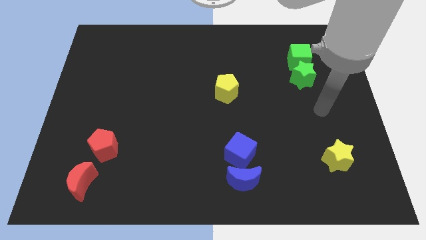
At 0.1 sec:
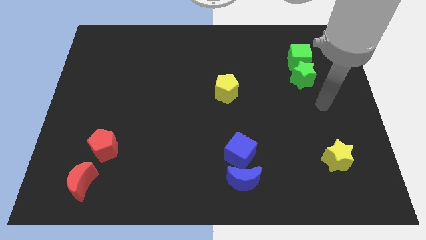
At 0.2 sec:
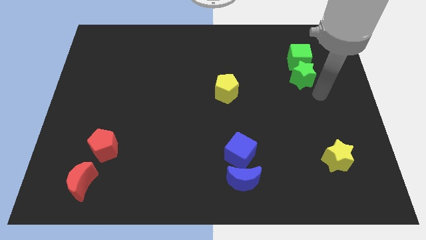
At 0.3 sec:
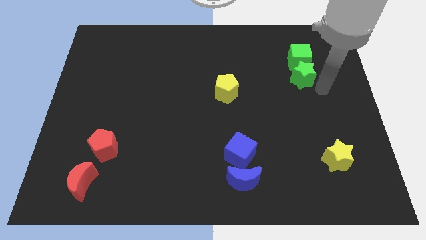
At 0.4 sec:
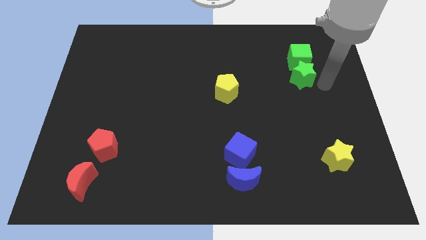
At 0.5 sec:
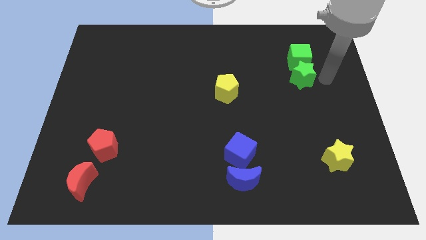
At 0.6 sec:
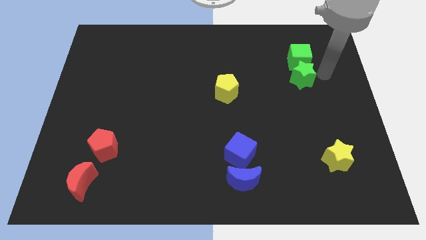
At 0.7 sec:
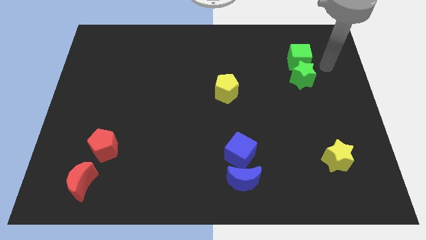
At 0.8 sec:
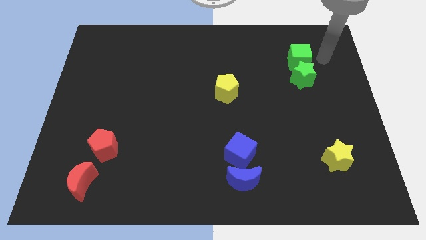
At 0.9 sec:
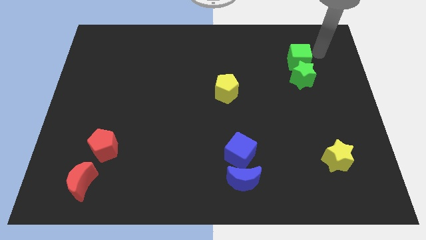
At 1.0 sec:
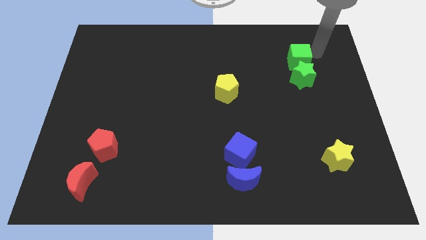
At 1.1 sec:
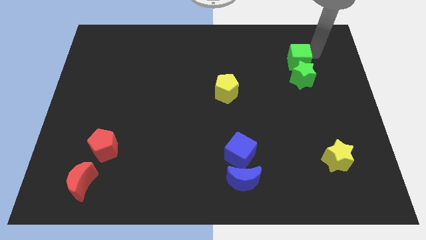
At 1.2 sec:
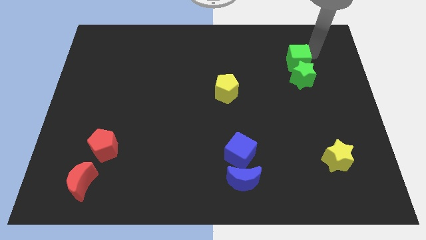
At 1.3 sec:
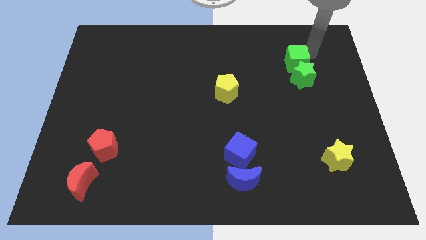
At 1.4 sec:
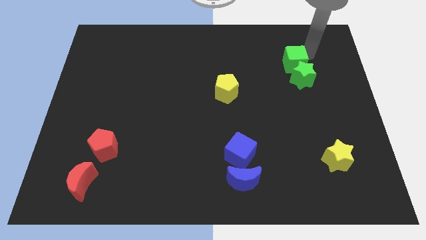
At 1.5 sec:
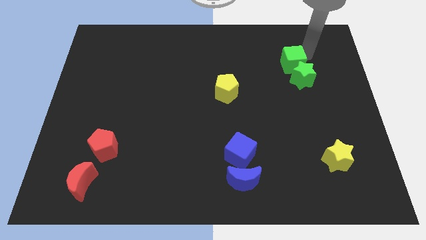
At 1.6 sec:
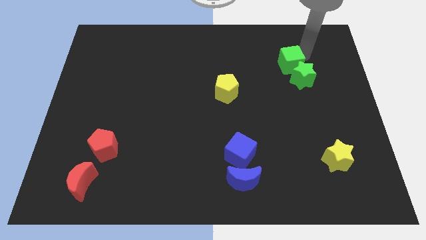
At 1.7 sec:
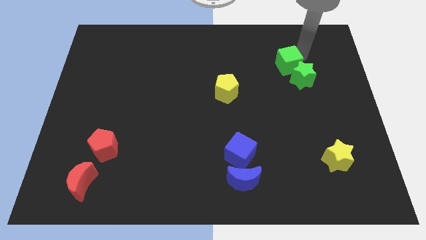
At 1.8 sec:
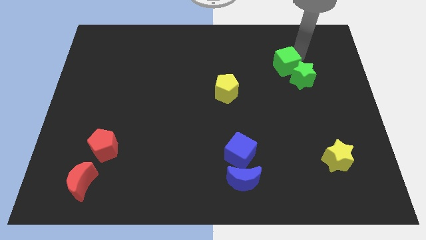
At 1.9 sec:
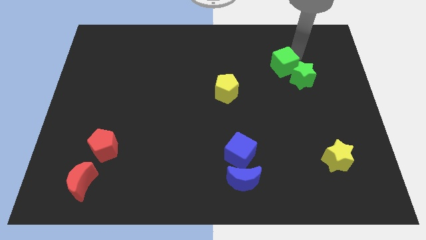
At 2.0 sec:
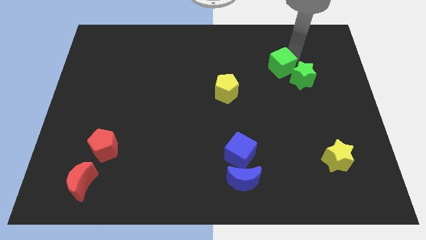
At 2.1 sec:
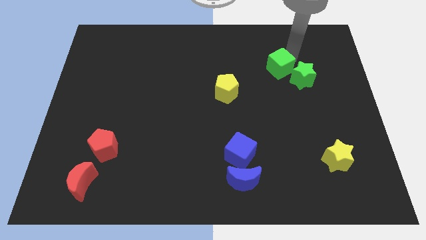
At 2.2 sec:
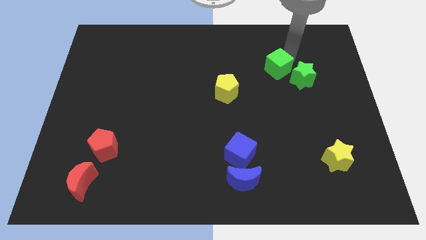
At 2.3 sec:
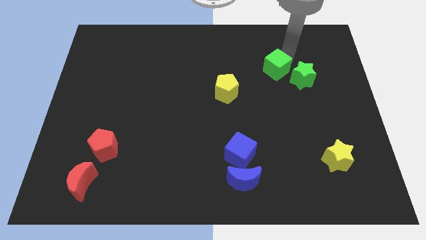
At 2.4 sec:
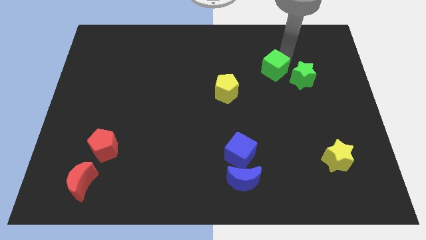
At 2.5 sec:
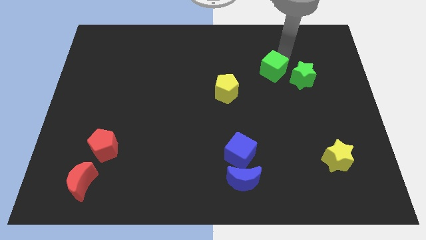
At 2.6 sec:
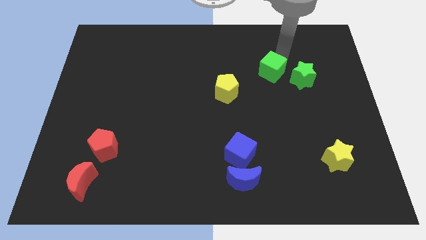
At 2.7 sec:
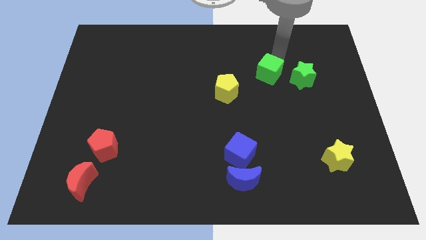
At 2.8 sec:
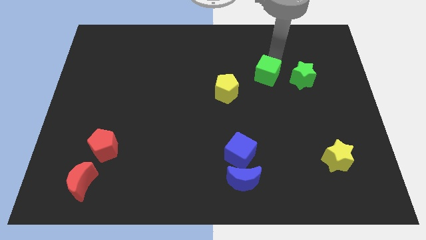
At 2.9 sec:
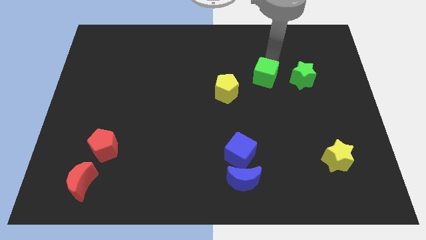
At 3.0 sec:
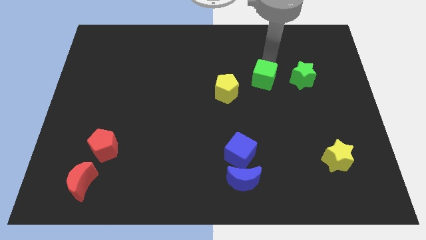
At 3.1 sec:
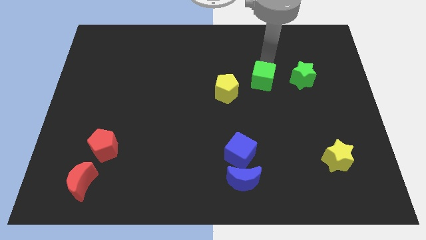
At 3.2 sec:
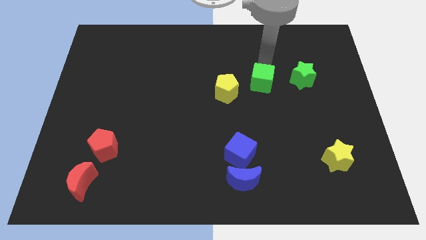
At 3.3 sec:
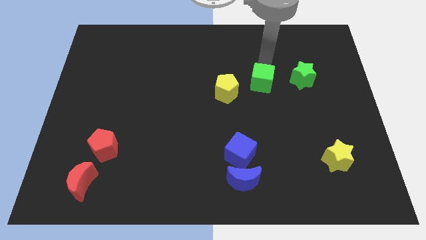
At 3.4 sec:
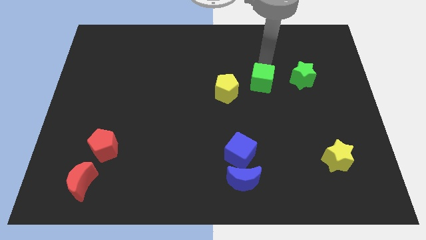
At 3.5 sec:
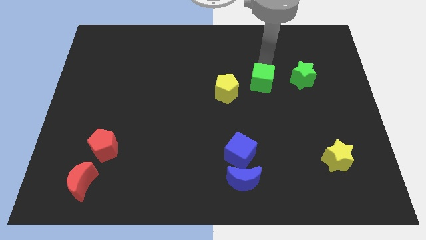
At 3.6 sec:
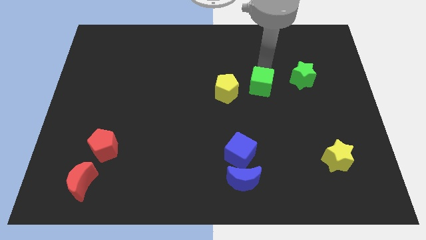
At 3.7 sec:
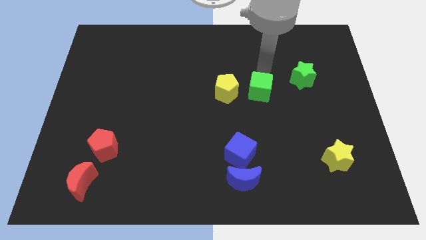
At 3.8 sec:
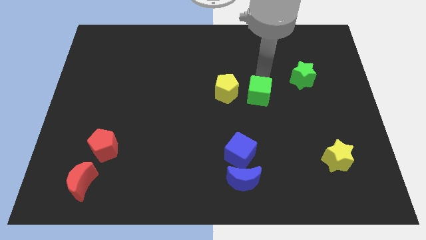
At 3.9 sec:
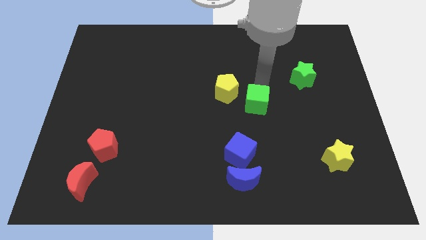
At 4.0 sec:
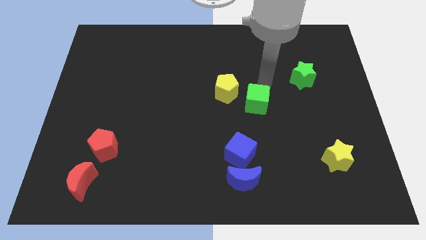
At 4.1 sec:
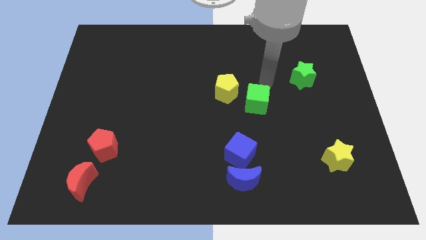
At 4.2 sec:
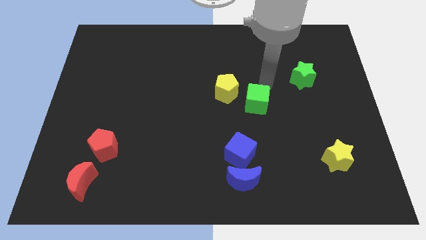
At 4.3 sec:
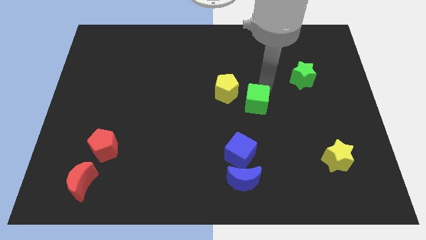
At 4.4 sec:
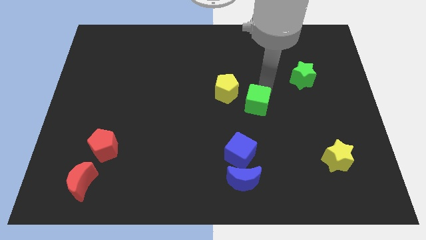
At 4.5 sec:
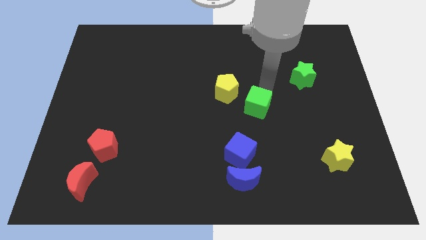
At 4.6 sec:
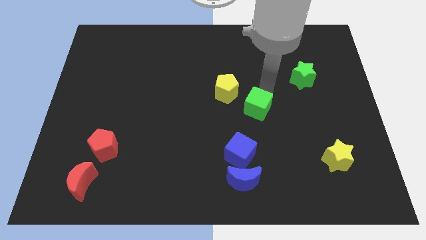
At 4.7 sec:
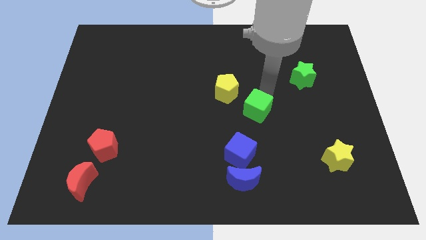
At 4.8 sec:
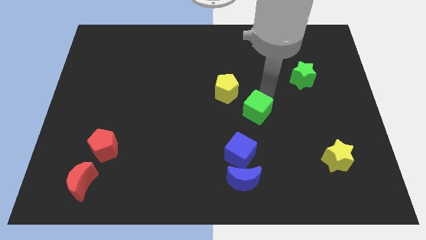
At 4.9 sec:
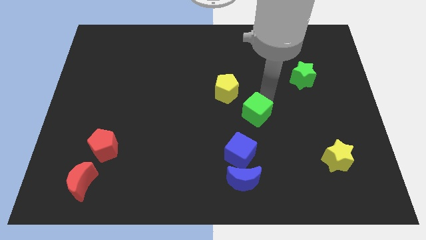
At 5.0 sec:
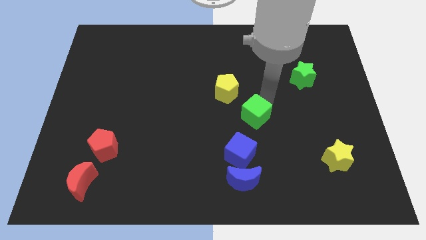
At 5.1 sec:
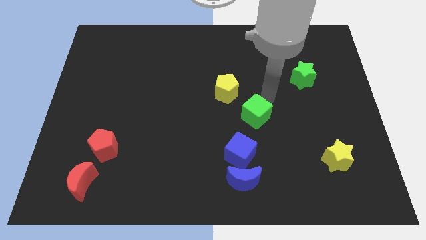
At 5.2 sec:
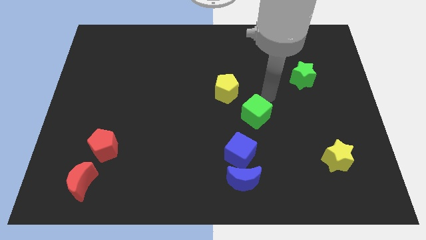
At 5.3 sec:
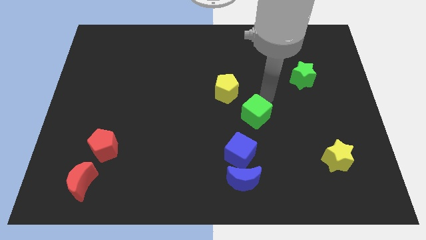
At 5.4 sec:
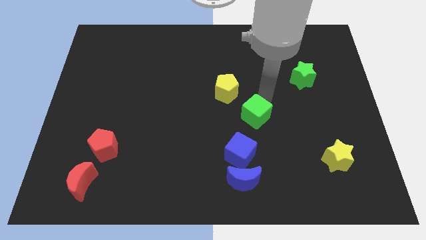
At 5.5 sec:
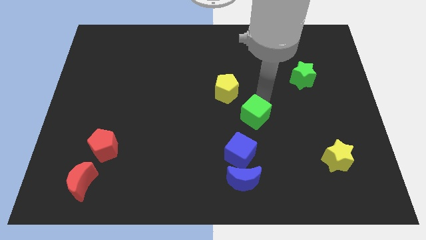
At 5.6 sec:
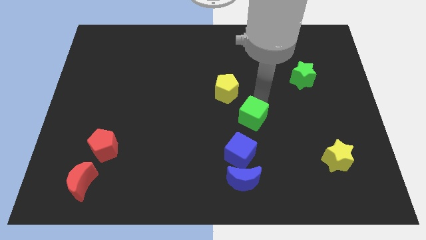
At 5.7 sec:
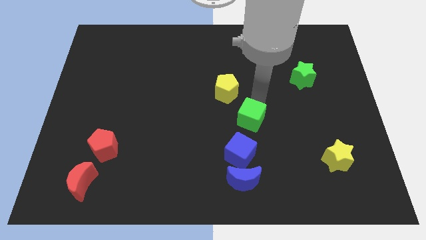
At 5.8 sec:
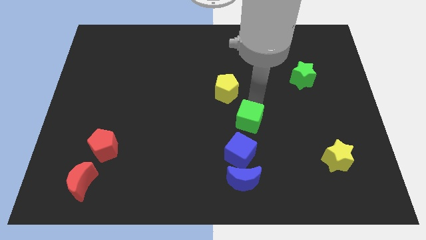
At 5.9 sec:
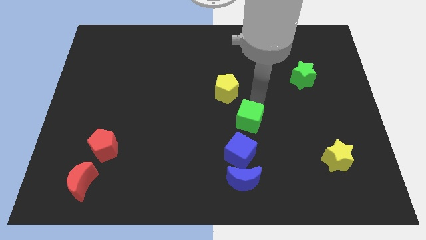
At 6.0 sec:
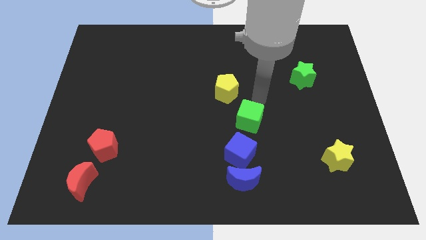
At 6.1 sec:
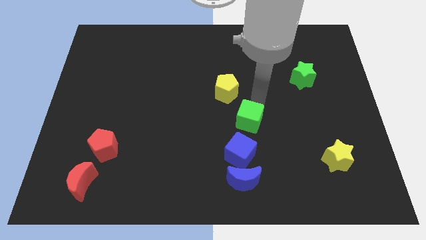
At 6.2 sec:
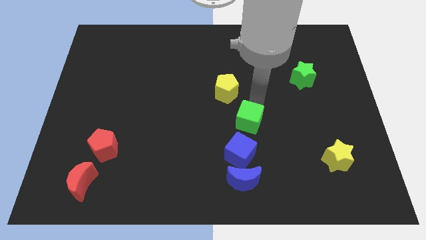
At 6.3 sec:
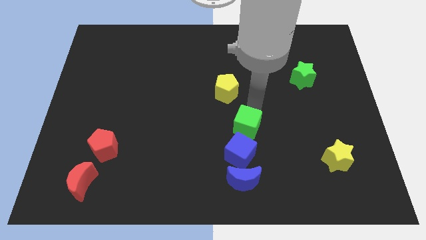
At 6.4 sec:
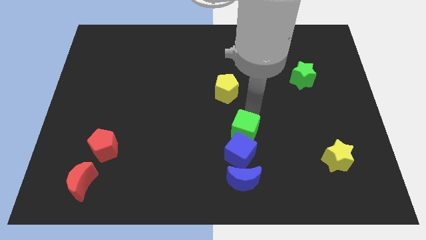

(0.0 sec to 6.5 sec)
push the green cube close to the blue cube

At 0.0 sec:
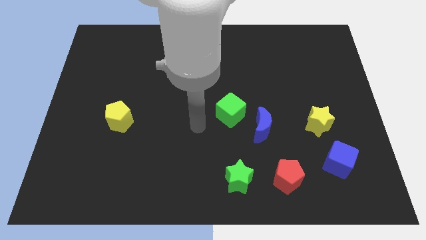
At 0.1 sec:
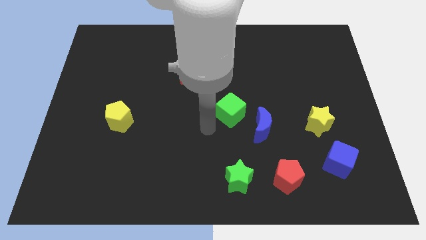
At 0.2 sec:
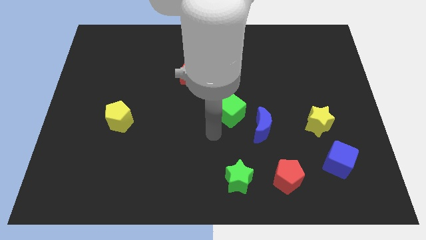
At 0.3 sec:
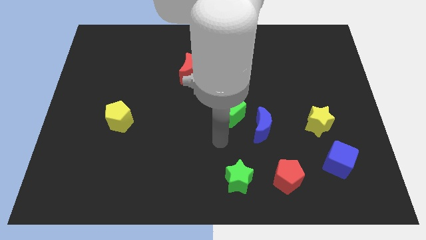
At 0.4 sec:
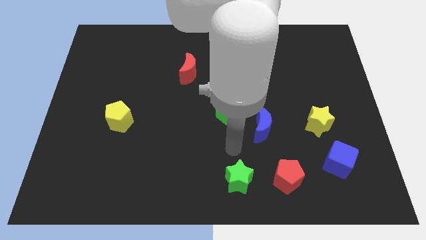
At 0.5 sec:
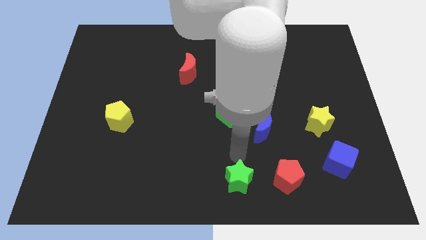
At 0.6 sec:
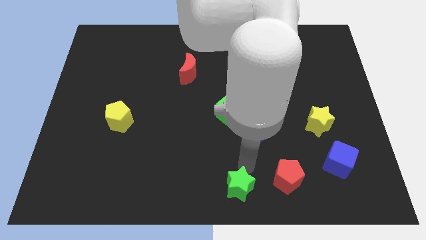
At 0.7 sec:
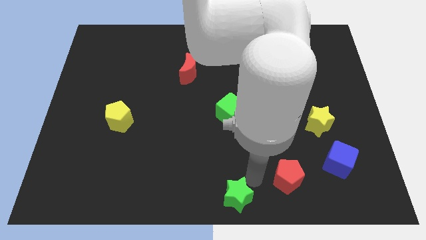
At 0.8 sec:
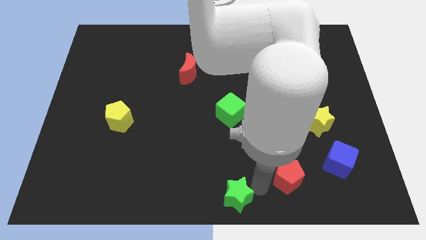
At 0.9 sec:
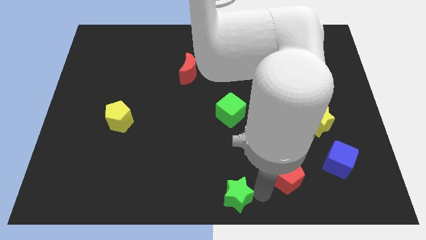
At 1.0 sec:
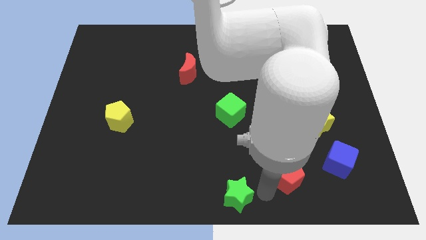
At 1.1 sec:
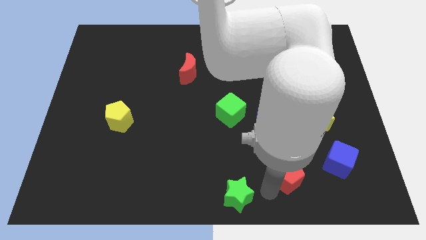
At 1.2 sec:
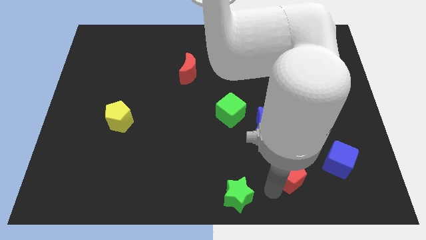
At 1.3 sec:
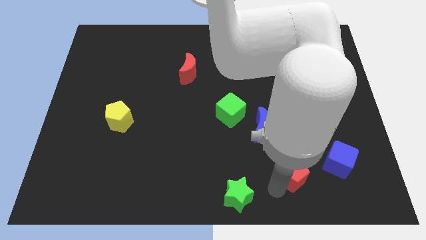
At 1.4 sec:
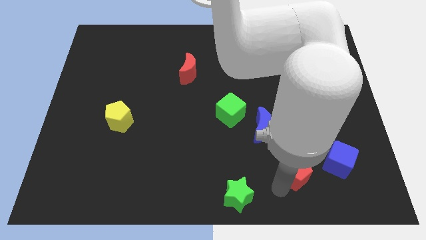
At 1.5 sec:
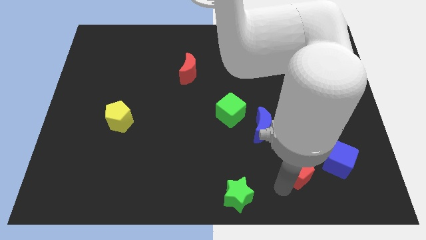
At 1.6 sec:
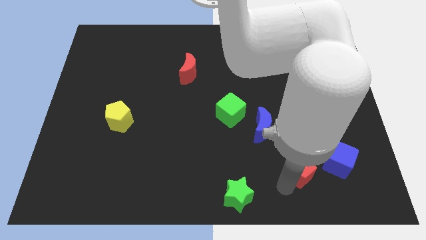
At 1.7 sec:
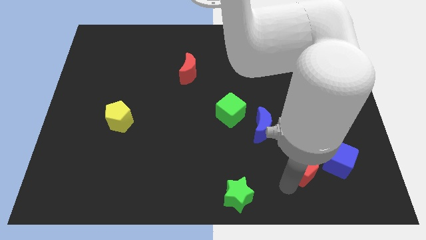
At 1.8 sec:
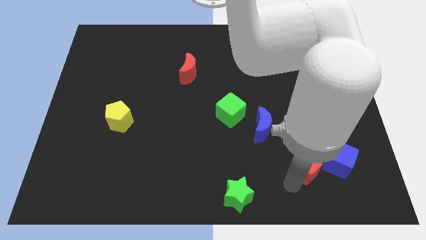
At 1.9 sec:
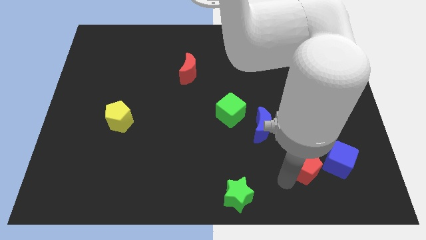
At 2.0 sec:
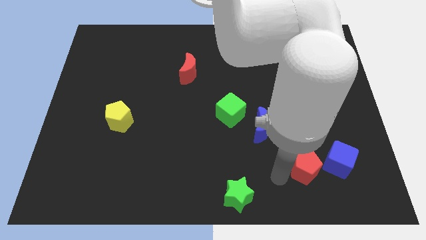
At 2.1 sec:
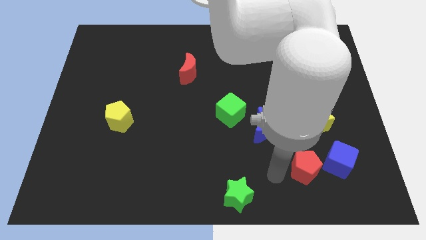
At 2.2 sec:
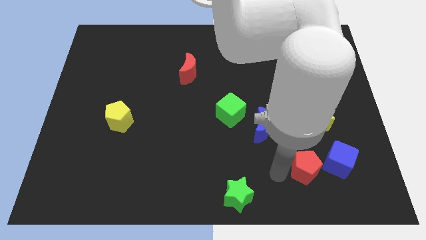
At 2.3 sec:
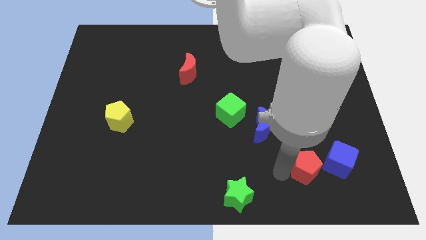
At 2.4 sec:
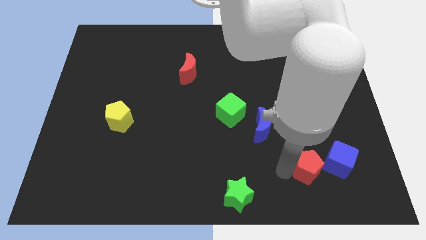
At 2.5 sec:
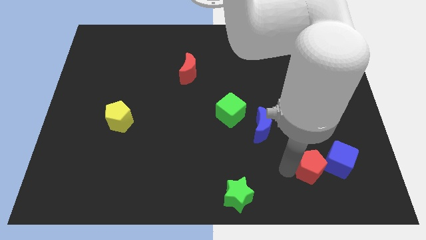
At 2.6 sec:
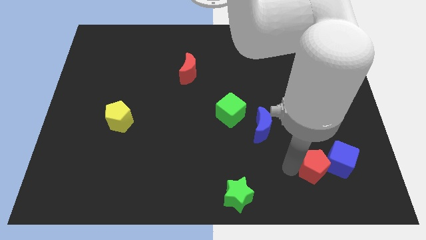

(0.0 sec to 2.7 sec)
move the red pentagon close to the blue cube
